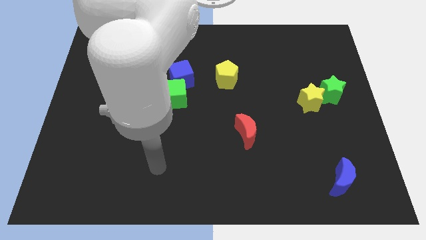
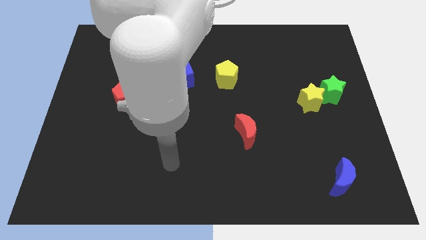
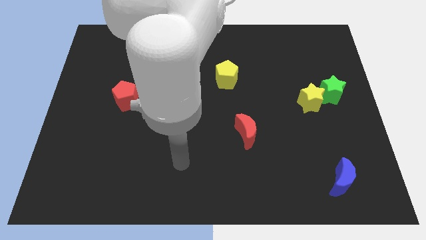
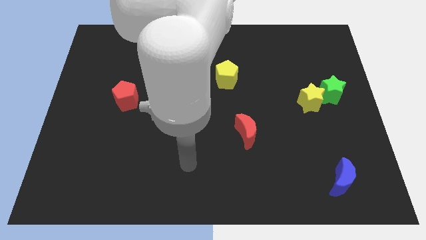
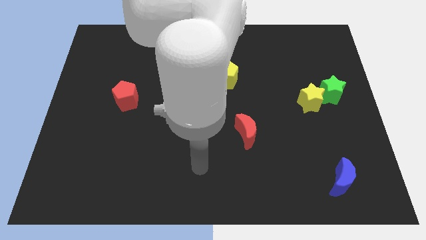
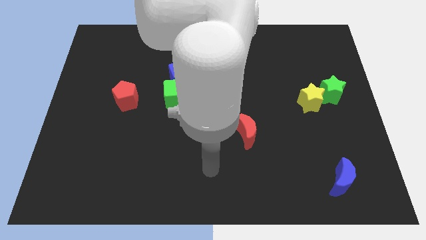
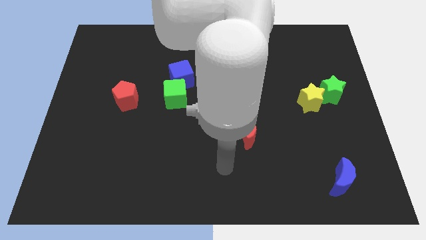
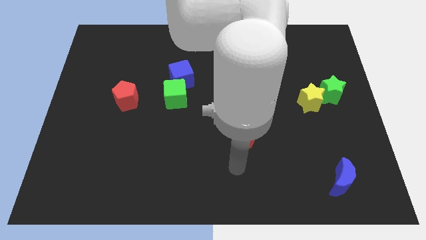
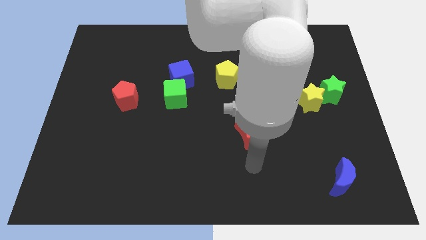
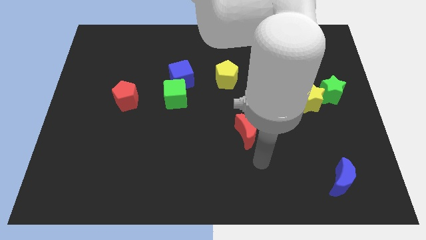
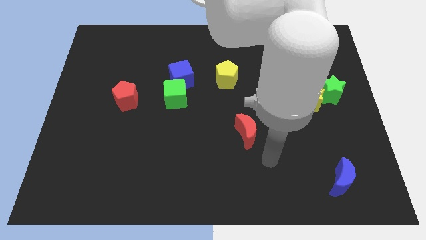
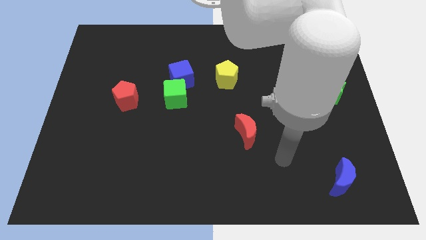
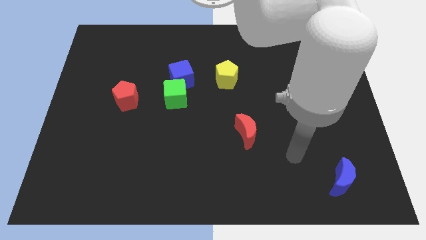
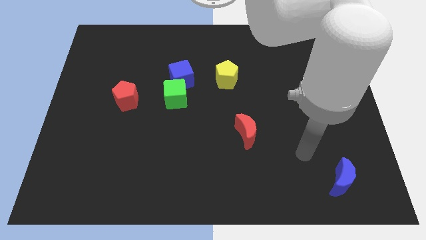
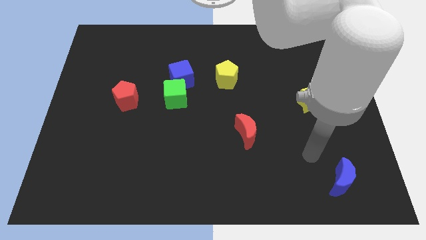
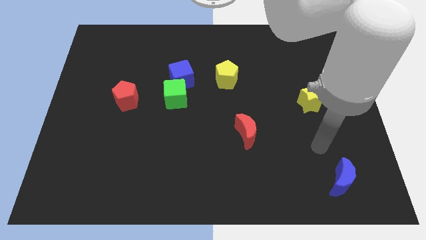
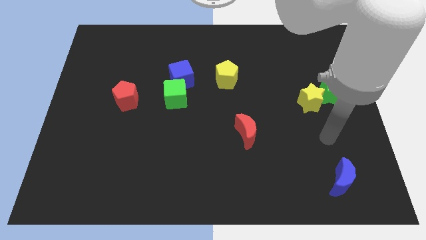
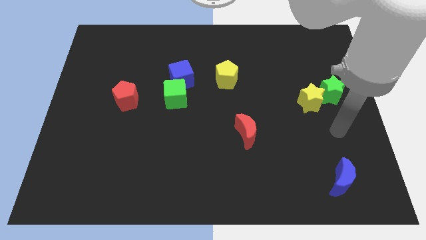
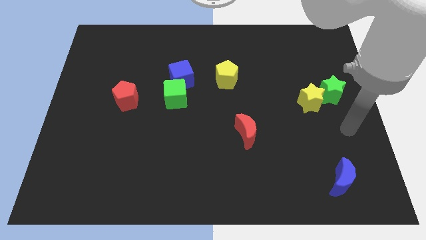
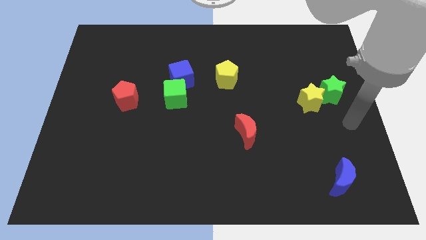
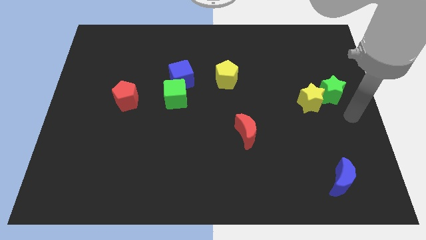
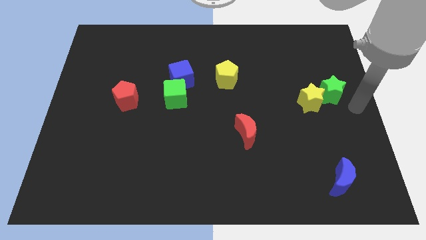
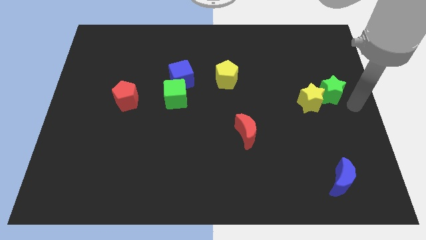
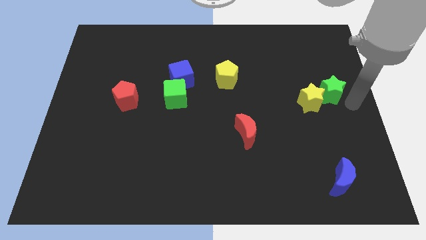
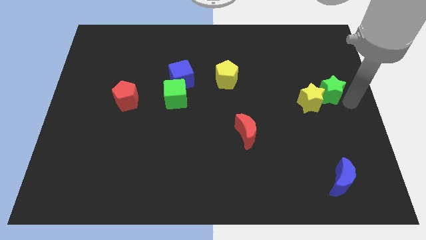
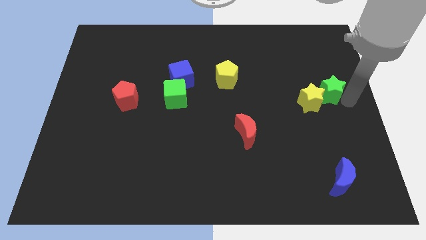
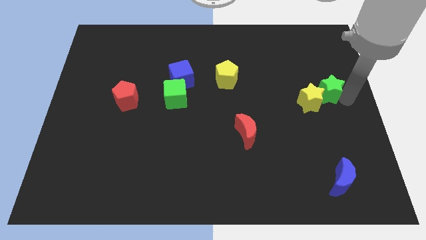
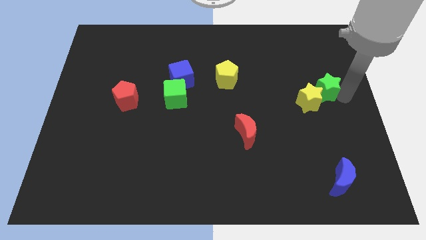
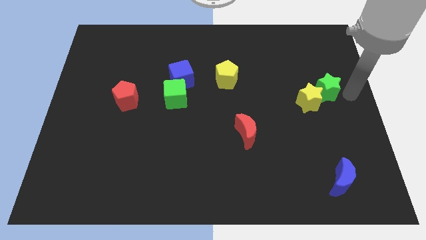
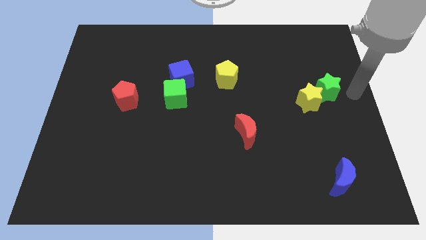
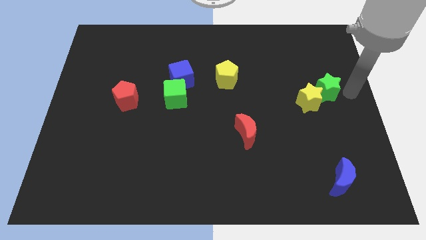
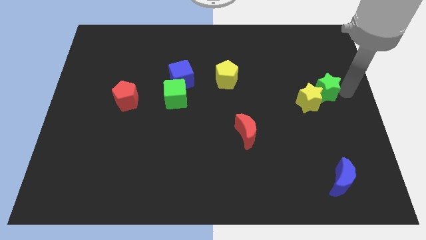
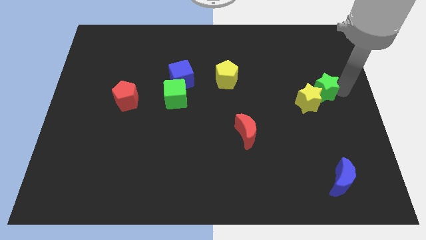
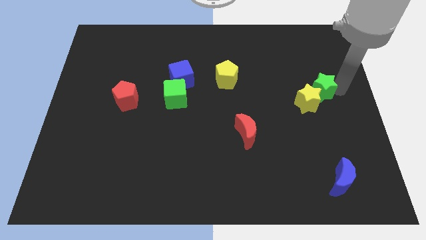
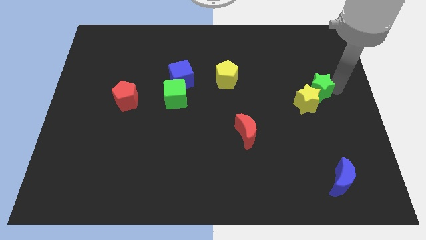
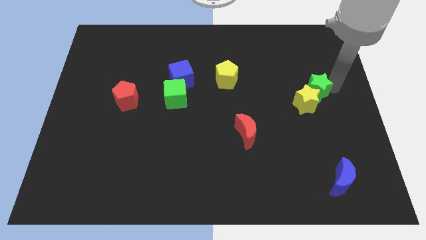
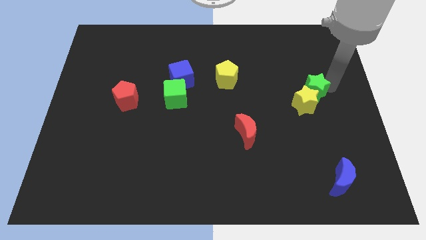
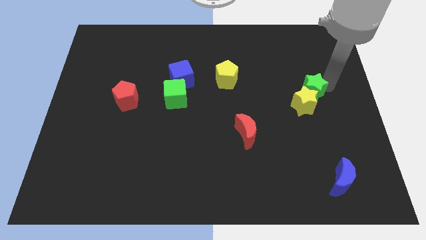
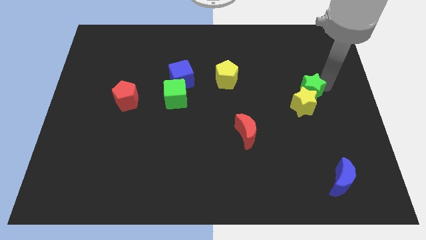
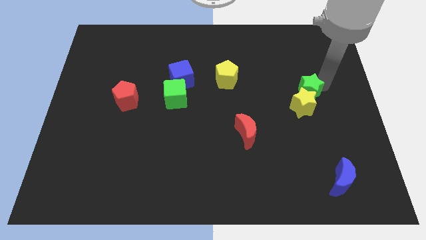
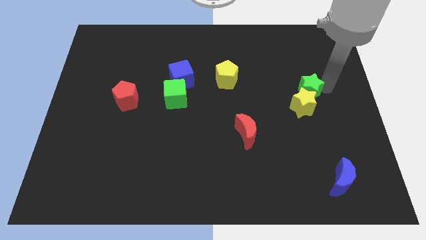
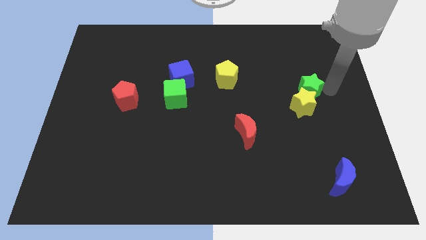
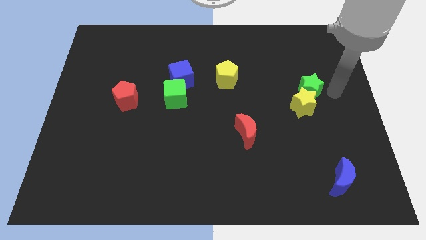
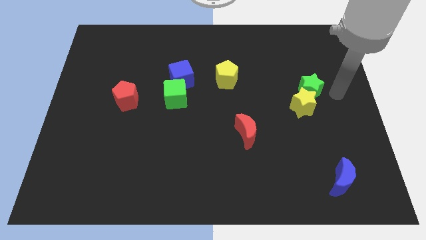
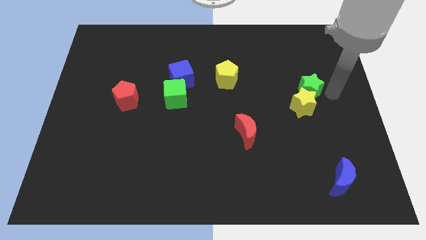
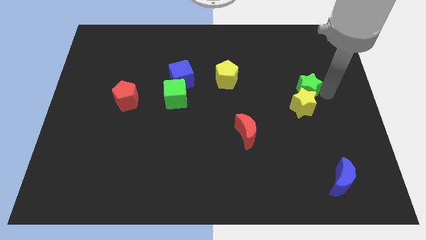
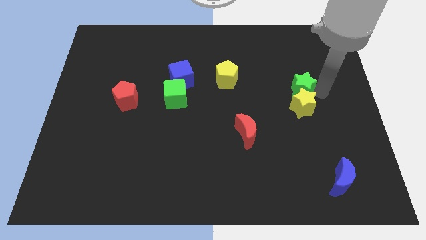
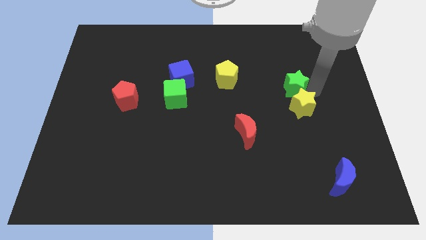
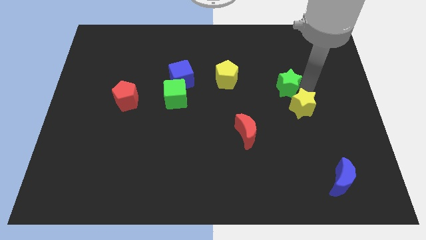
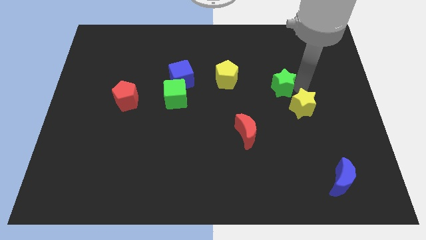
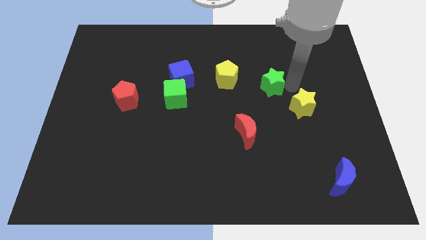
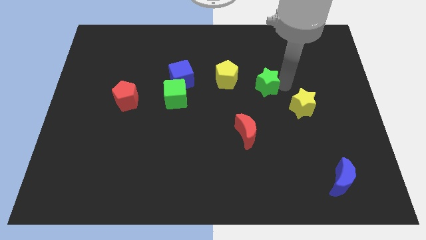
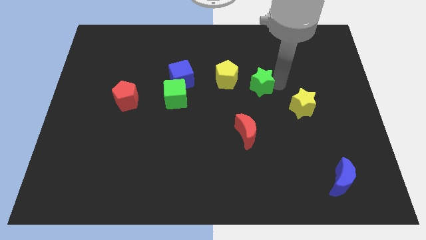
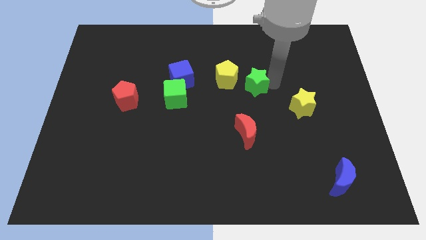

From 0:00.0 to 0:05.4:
slide the green star to the center
